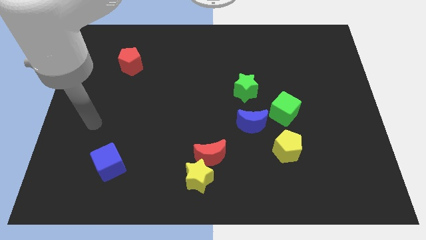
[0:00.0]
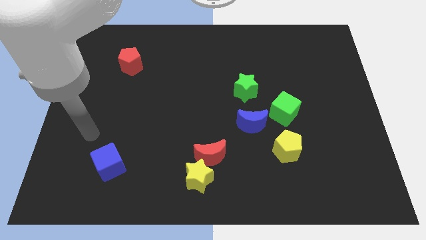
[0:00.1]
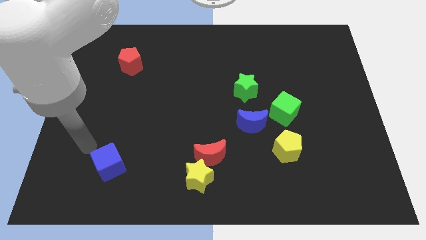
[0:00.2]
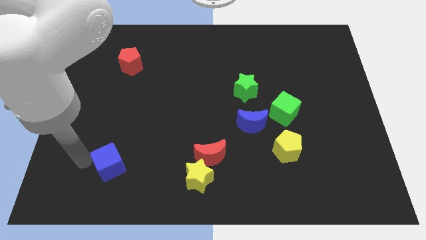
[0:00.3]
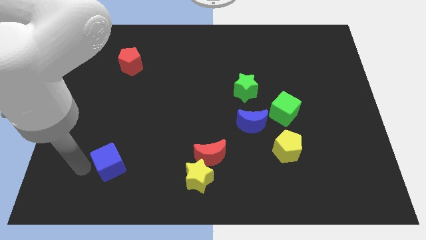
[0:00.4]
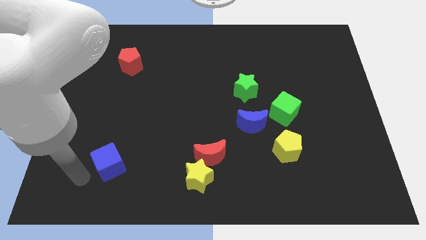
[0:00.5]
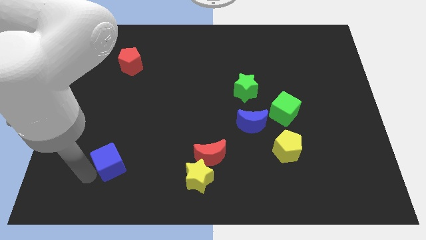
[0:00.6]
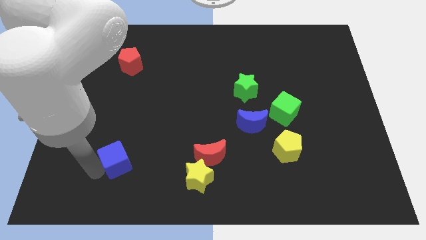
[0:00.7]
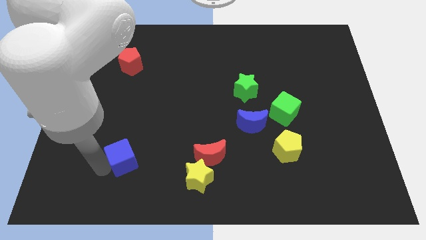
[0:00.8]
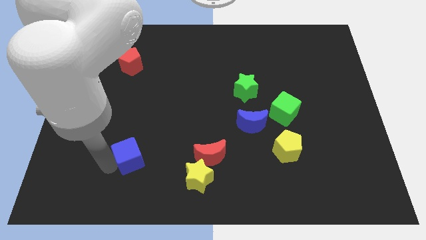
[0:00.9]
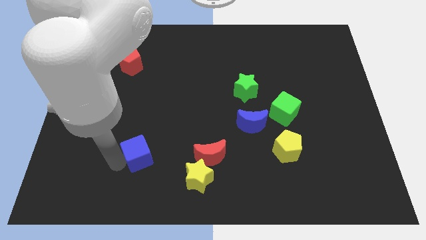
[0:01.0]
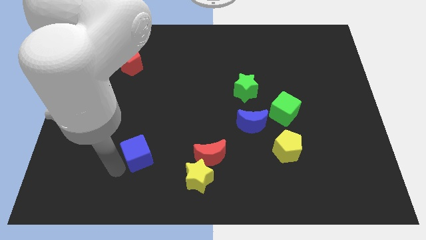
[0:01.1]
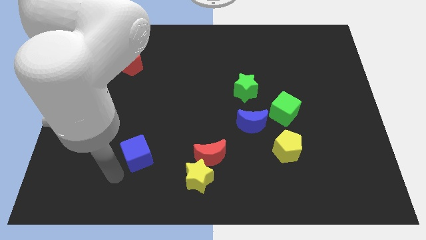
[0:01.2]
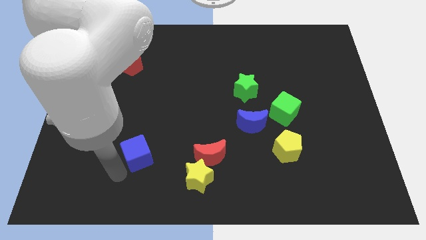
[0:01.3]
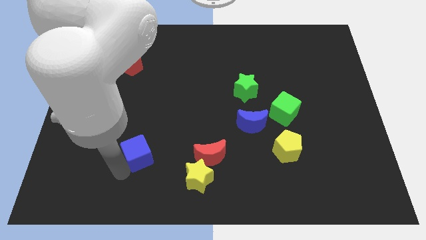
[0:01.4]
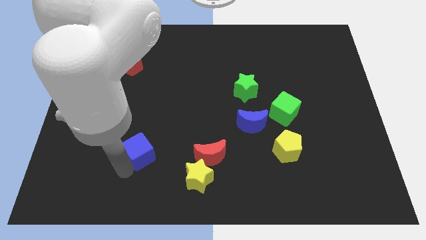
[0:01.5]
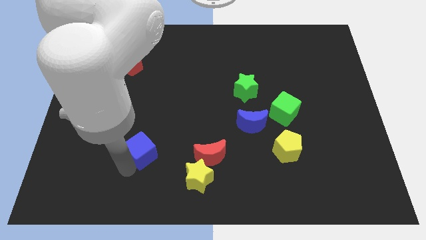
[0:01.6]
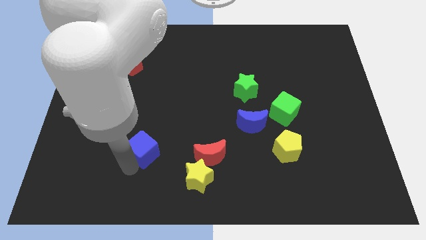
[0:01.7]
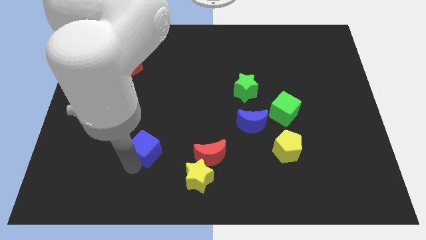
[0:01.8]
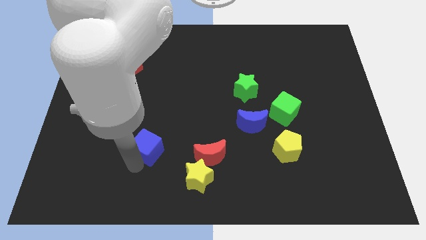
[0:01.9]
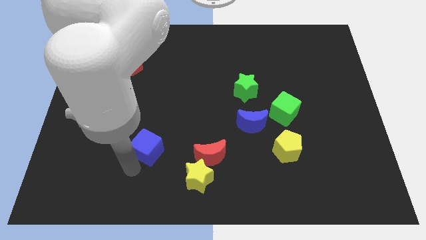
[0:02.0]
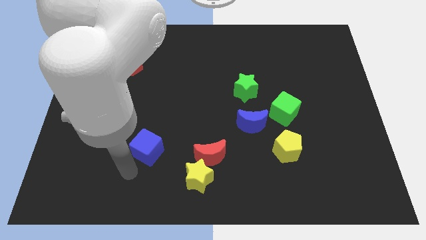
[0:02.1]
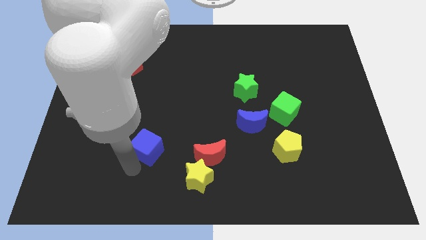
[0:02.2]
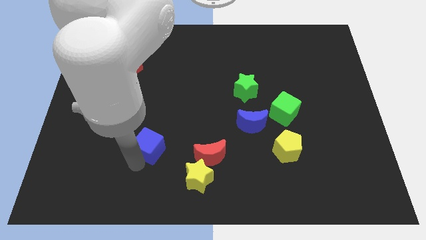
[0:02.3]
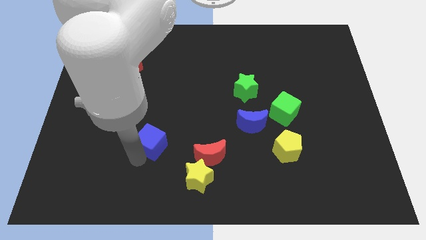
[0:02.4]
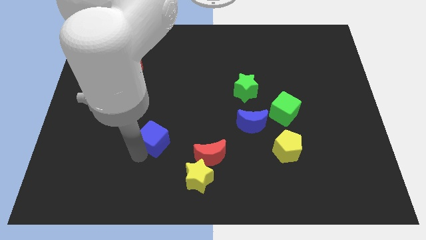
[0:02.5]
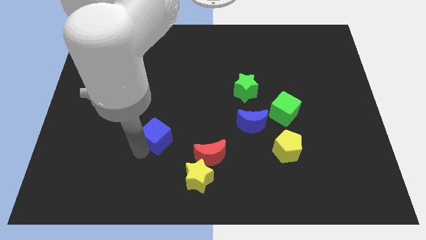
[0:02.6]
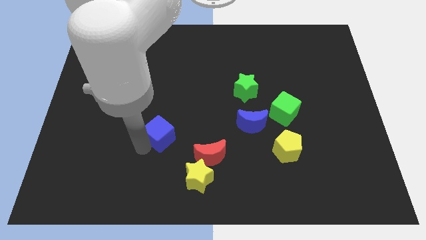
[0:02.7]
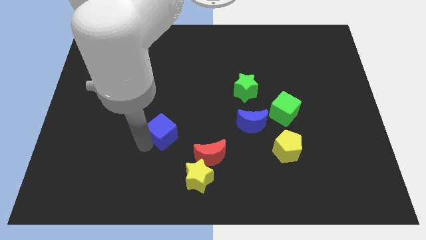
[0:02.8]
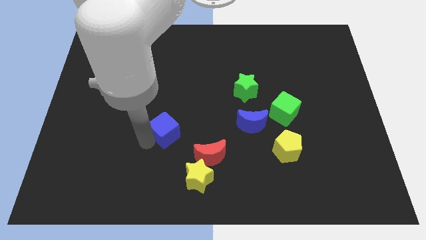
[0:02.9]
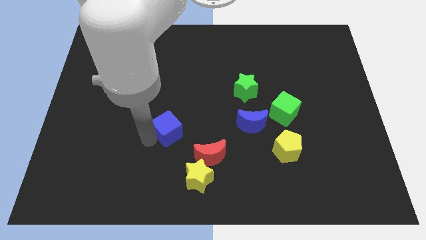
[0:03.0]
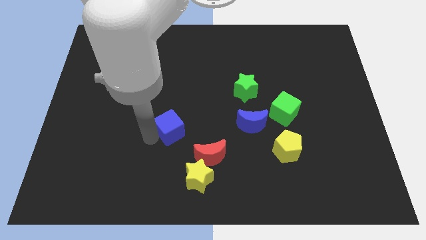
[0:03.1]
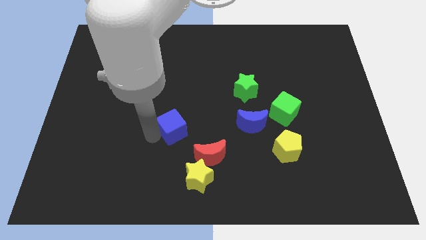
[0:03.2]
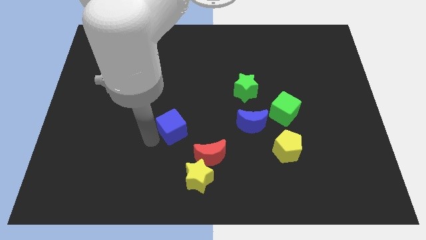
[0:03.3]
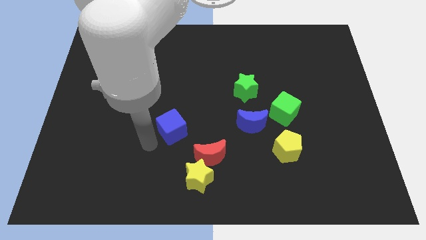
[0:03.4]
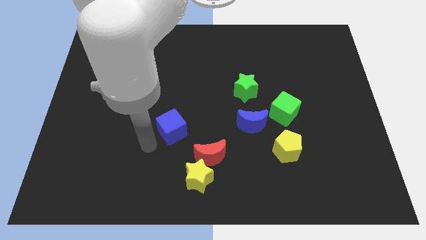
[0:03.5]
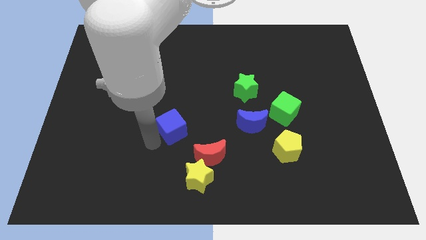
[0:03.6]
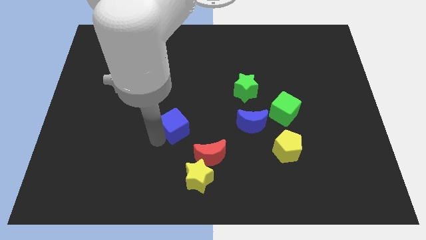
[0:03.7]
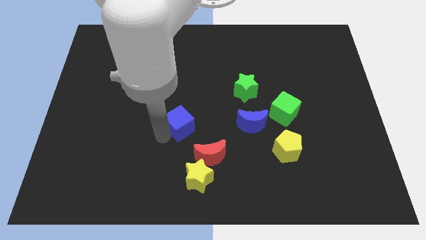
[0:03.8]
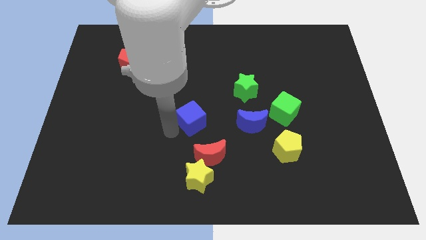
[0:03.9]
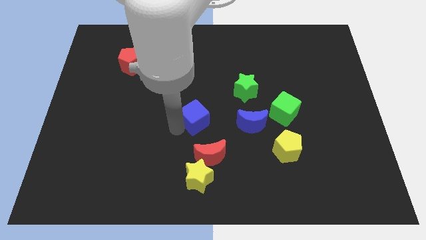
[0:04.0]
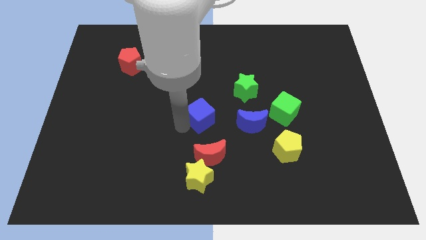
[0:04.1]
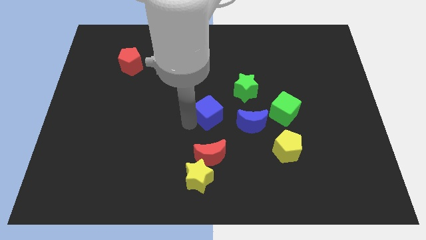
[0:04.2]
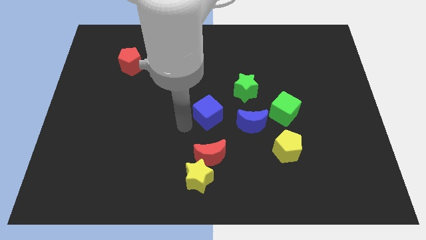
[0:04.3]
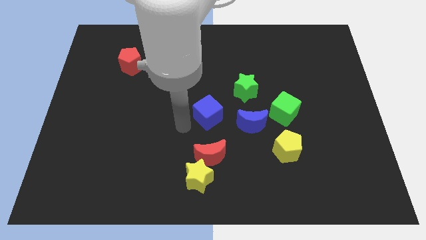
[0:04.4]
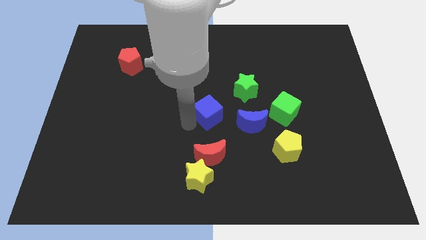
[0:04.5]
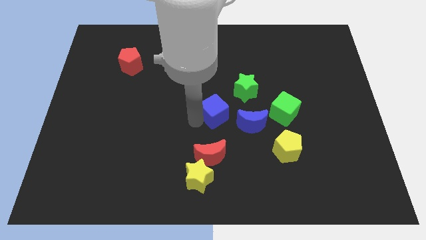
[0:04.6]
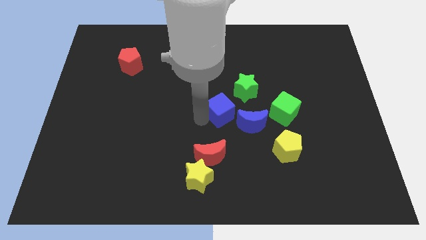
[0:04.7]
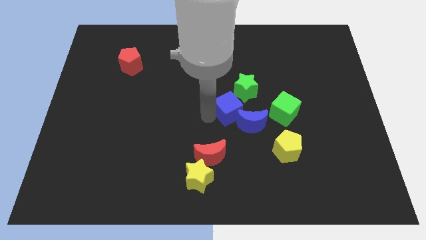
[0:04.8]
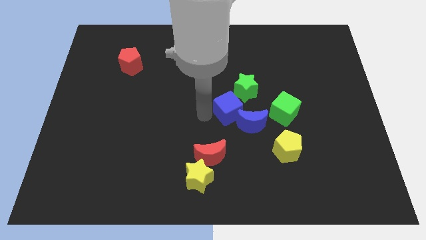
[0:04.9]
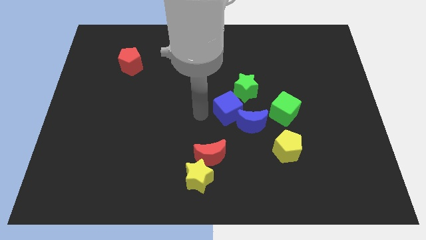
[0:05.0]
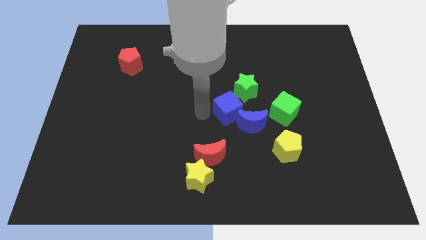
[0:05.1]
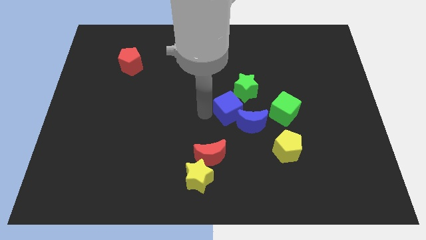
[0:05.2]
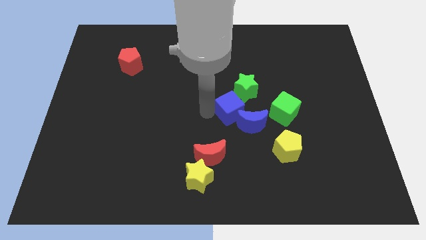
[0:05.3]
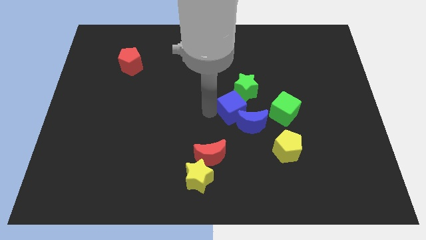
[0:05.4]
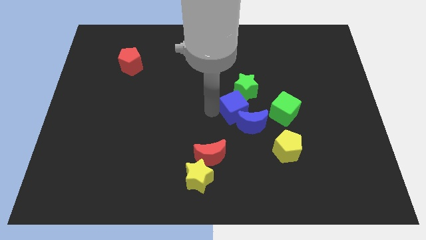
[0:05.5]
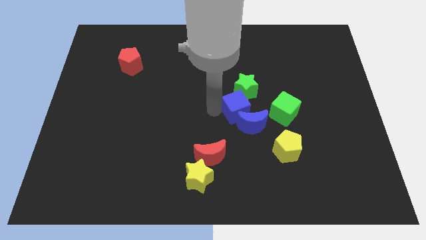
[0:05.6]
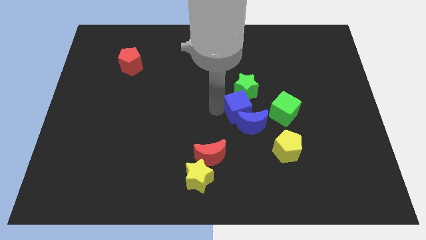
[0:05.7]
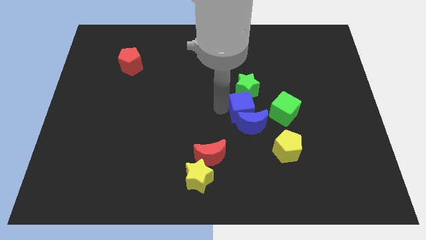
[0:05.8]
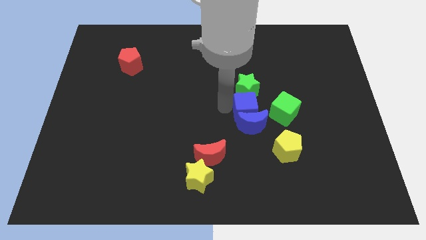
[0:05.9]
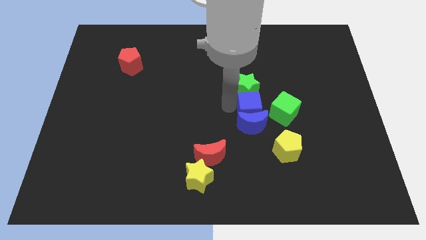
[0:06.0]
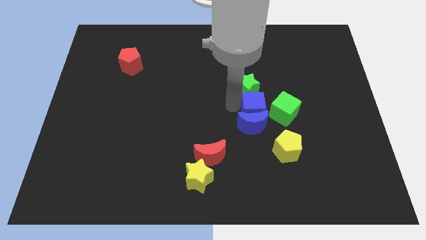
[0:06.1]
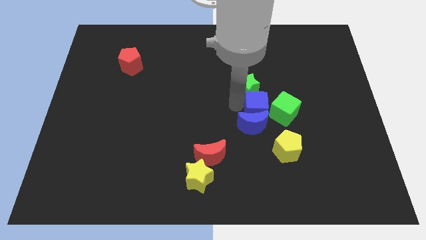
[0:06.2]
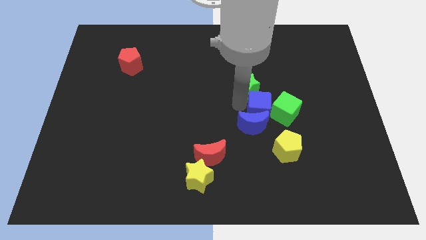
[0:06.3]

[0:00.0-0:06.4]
move the blue cube next to the green cube

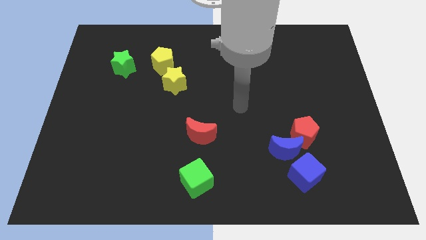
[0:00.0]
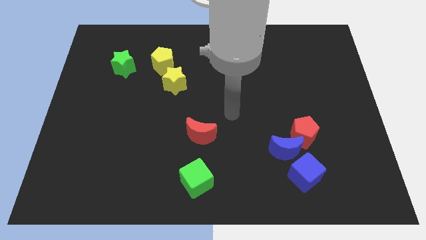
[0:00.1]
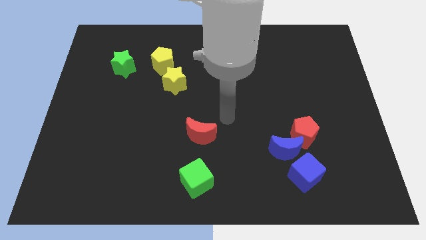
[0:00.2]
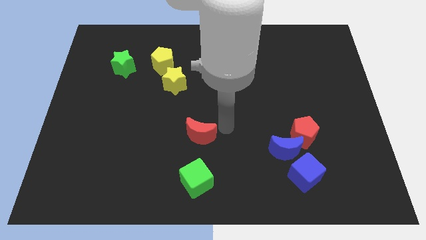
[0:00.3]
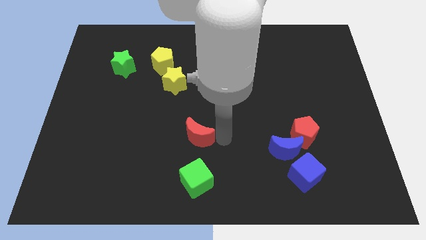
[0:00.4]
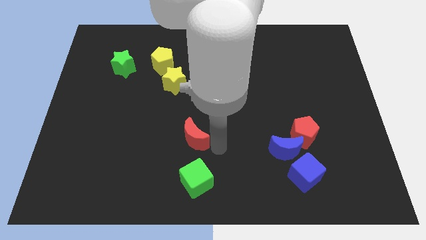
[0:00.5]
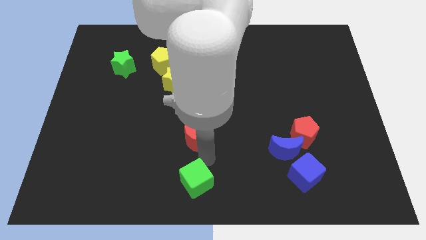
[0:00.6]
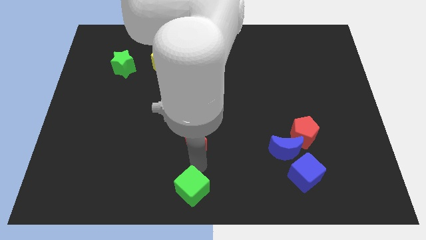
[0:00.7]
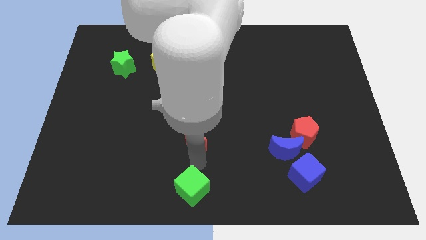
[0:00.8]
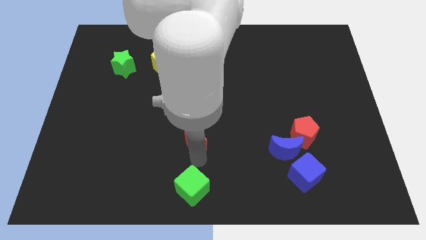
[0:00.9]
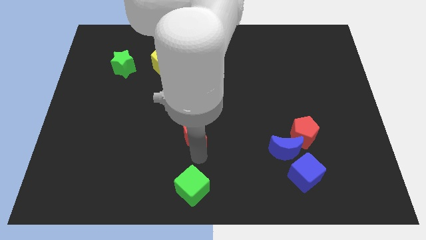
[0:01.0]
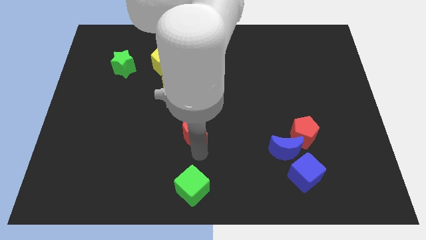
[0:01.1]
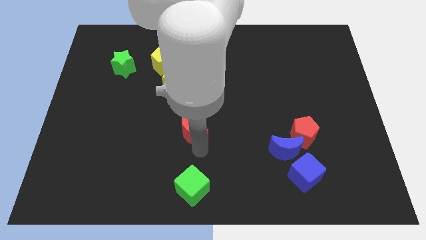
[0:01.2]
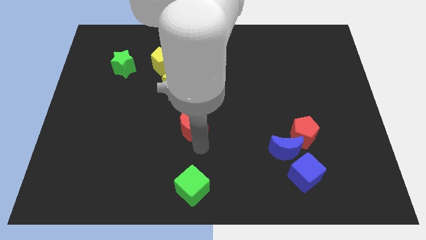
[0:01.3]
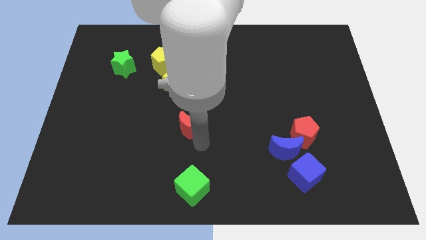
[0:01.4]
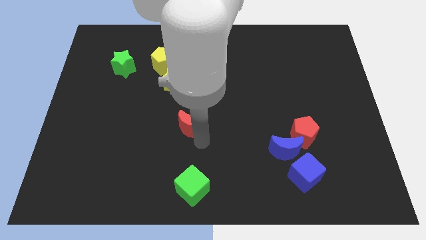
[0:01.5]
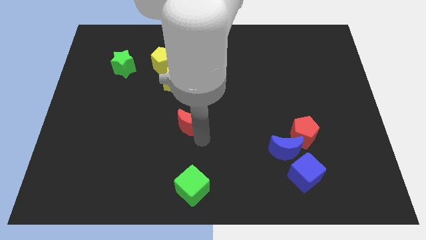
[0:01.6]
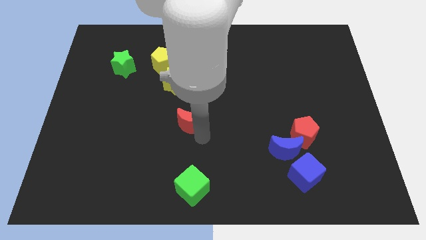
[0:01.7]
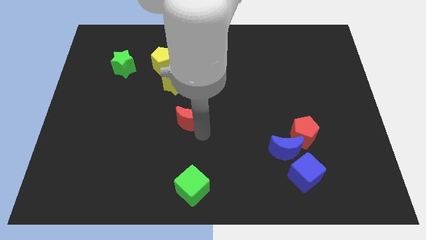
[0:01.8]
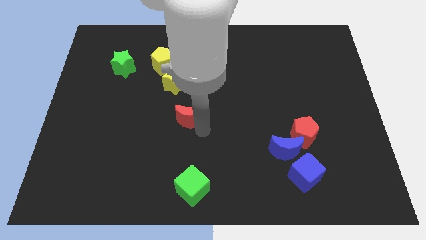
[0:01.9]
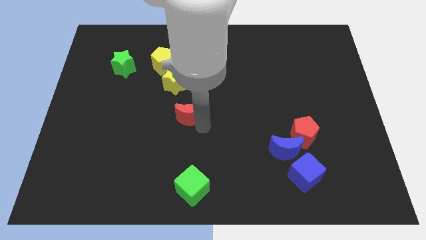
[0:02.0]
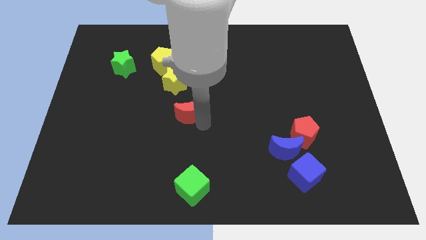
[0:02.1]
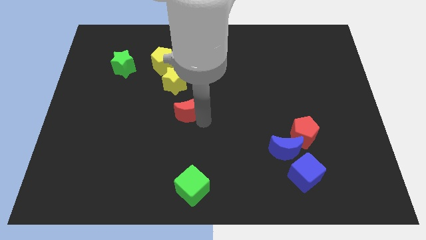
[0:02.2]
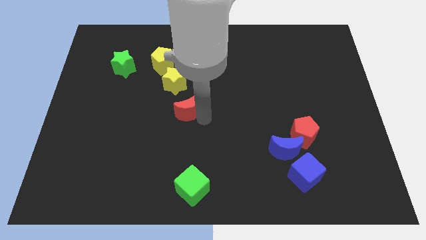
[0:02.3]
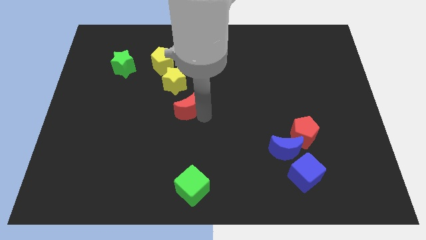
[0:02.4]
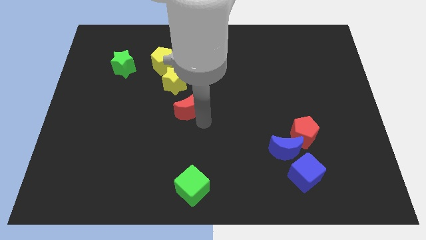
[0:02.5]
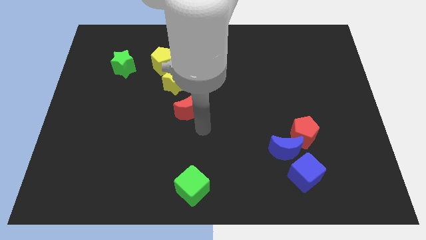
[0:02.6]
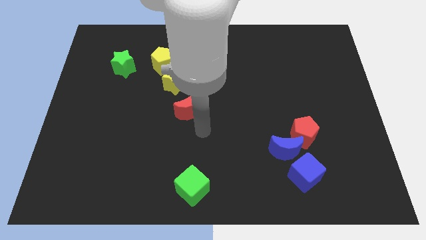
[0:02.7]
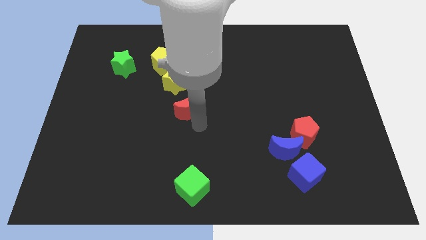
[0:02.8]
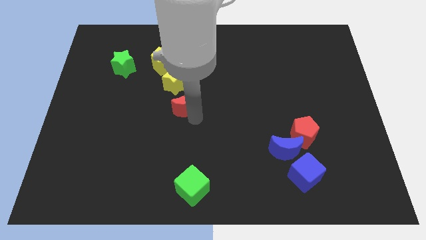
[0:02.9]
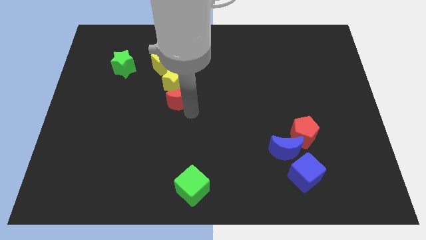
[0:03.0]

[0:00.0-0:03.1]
move the red moon to the yellow star
